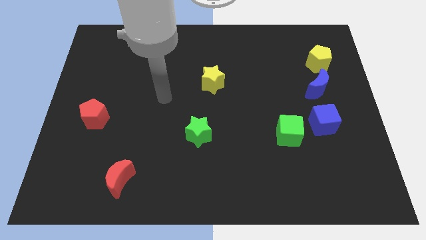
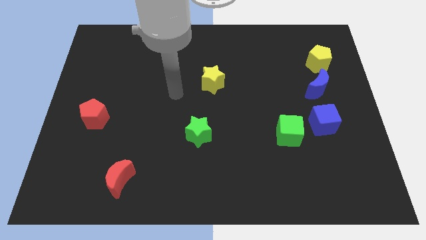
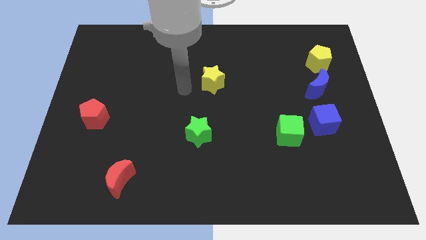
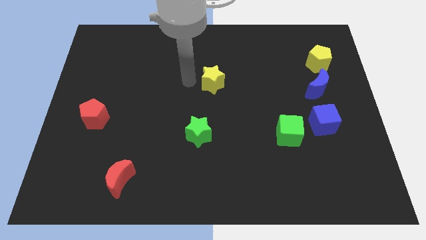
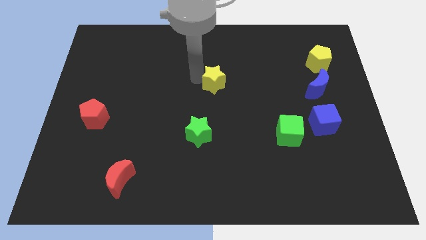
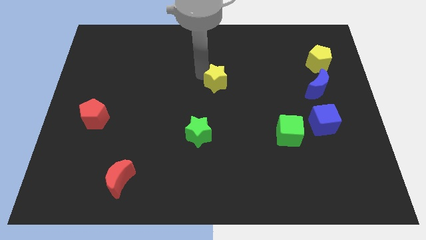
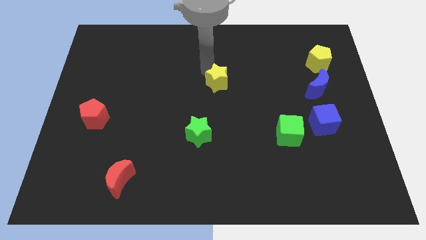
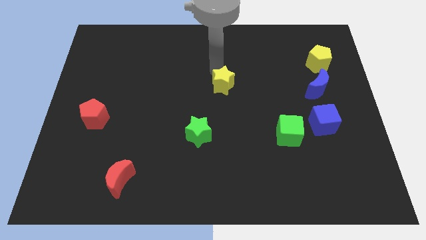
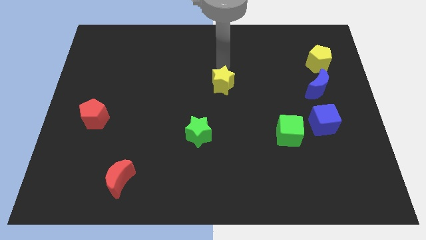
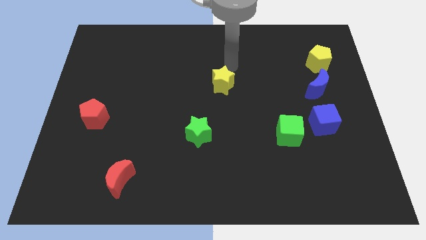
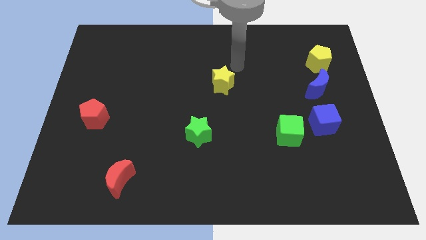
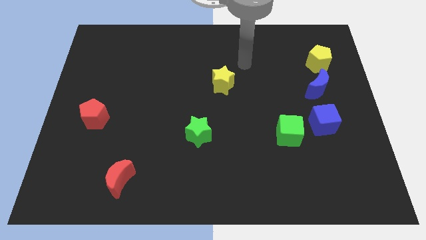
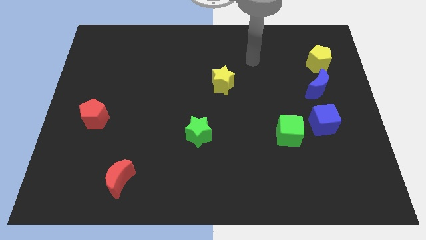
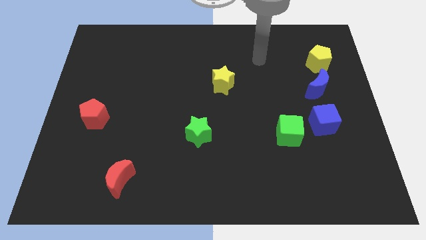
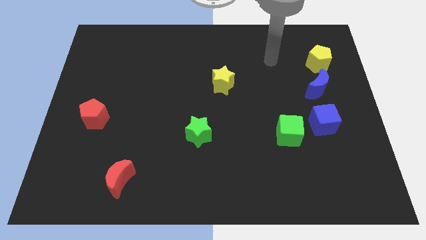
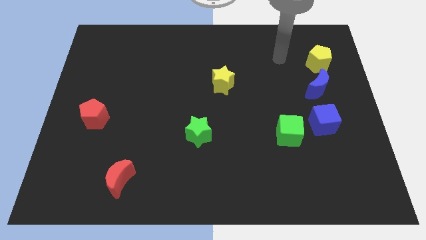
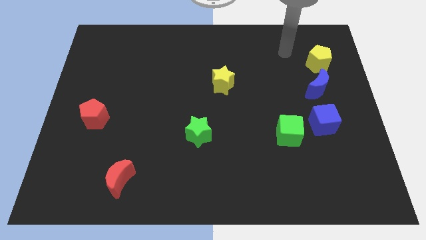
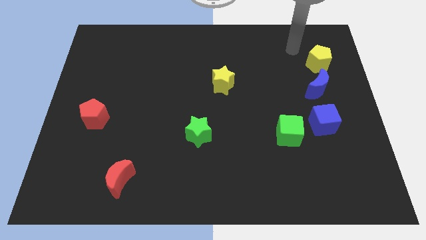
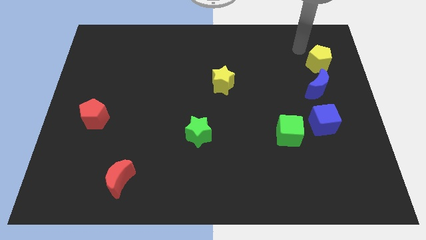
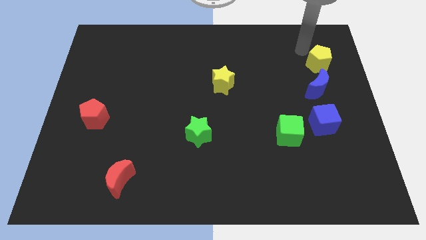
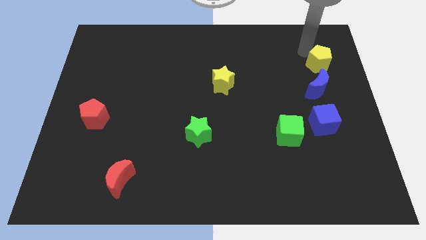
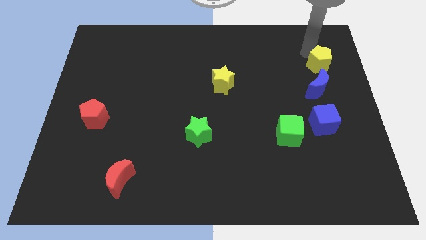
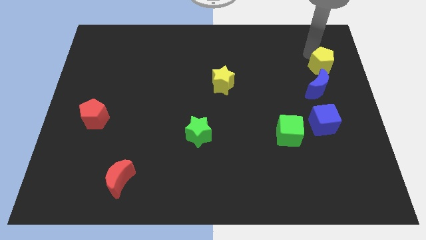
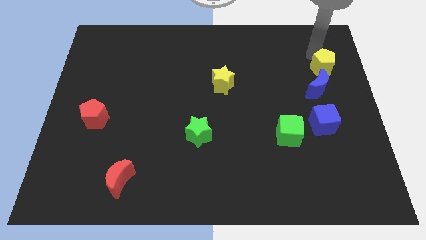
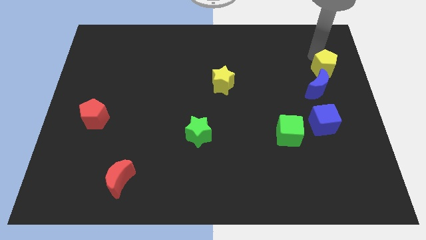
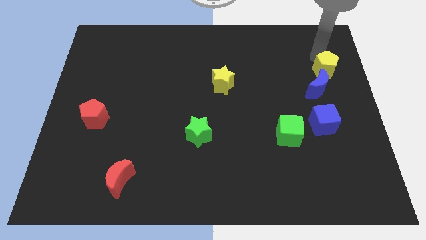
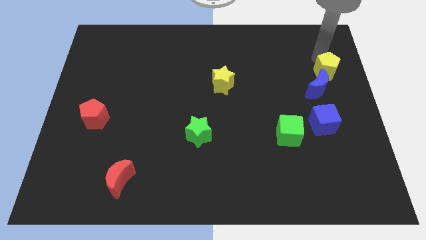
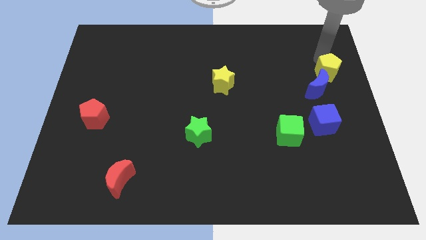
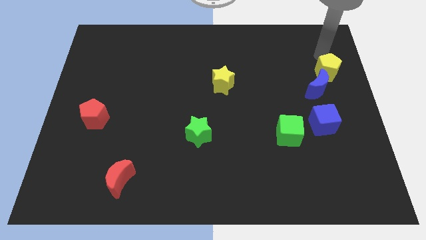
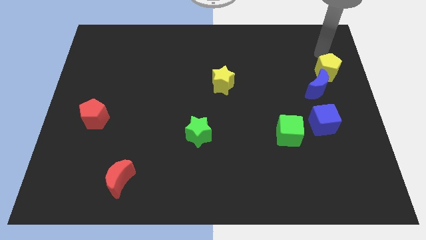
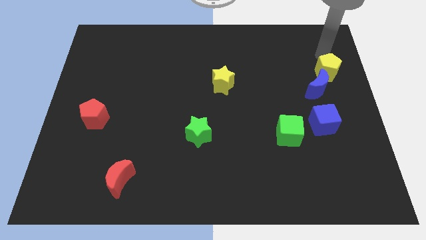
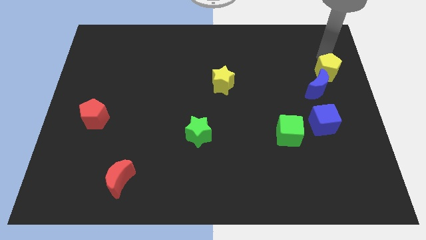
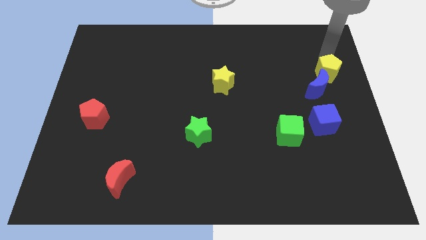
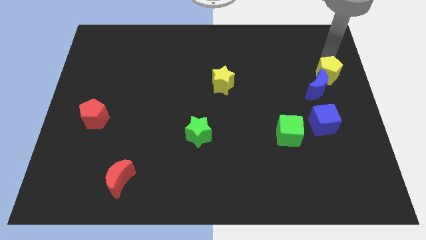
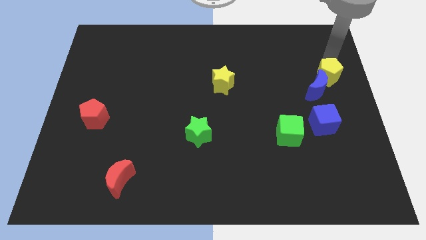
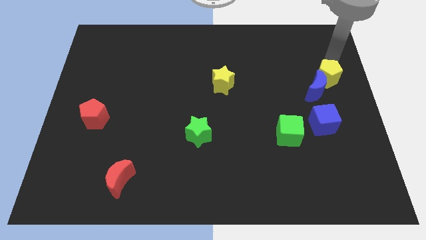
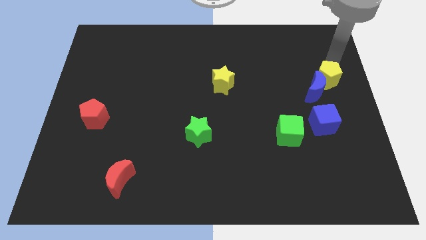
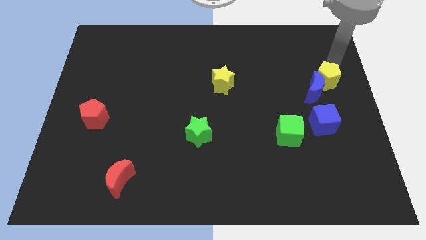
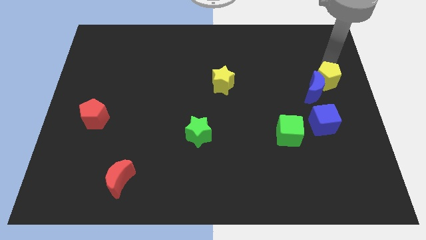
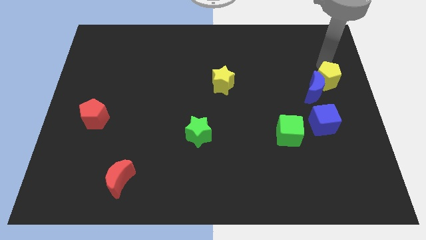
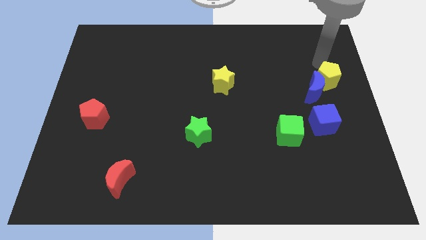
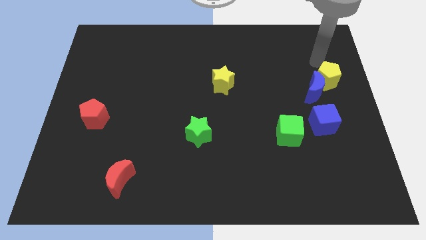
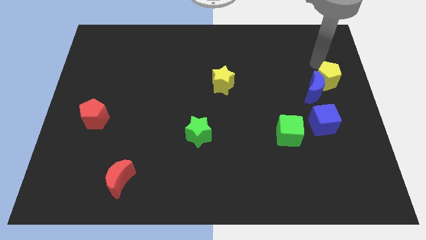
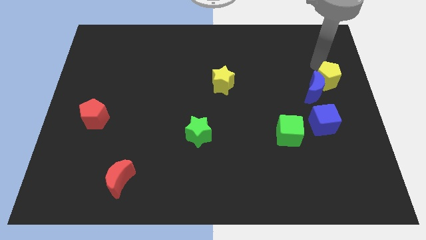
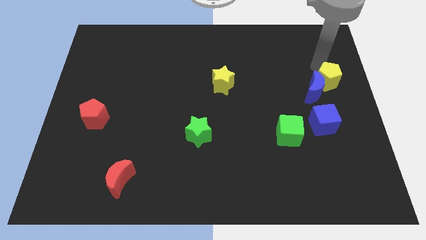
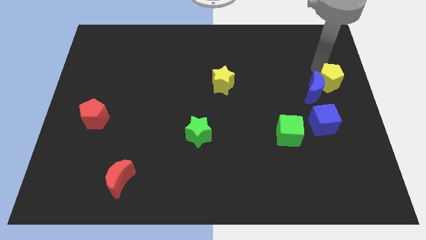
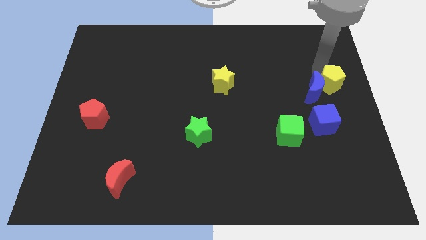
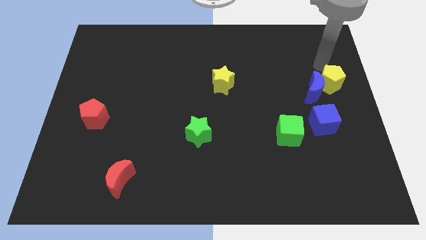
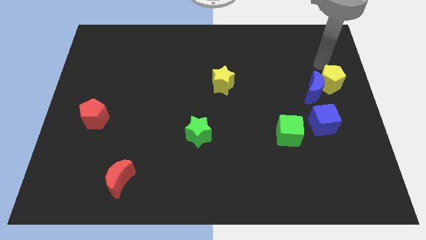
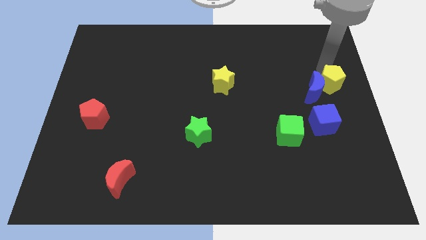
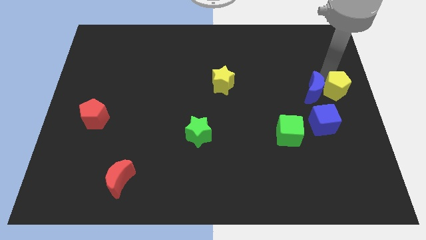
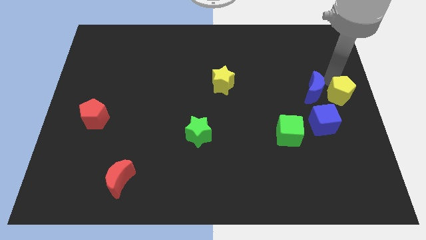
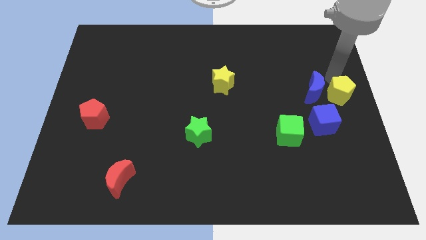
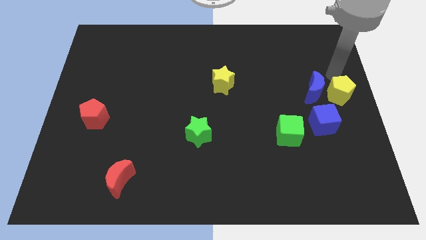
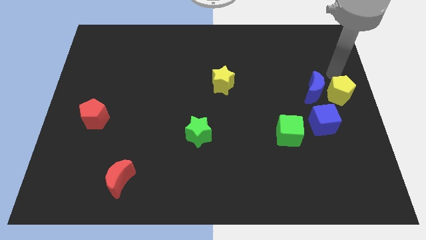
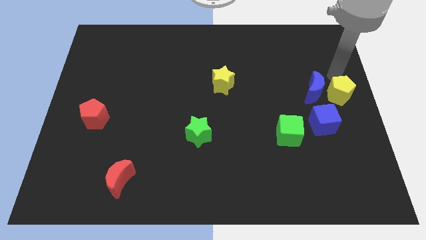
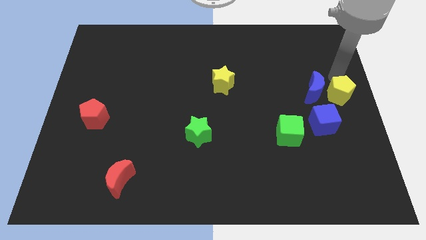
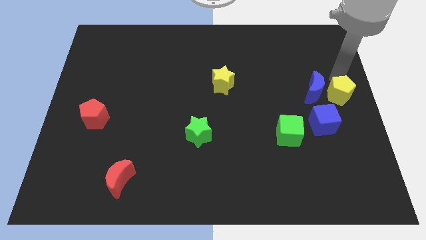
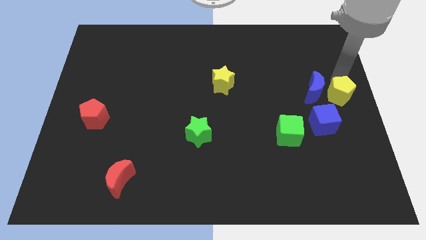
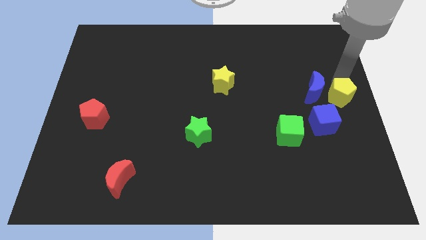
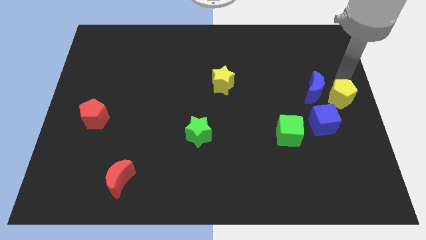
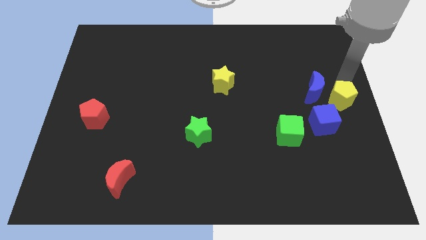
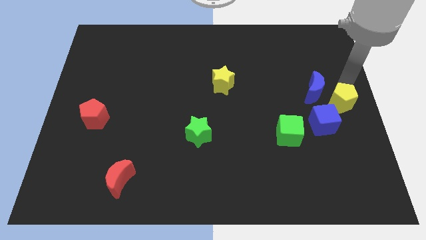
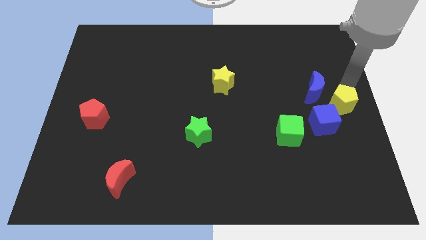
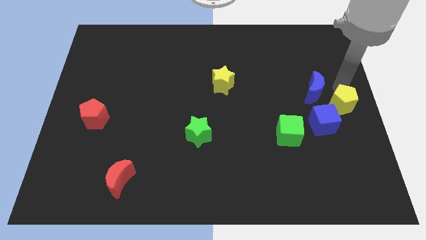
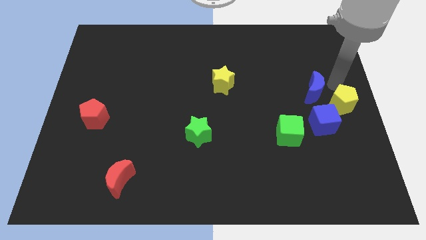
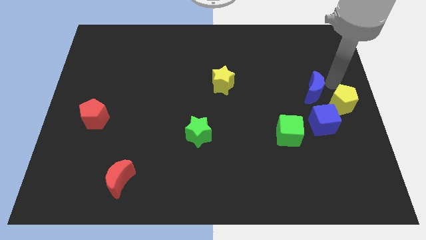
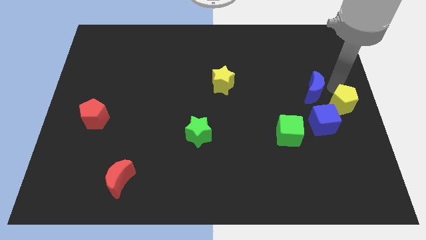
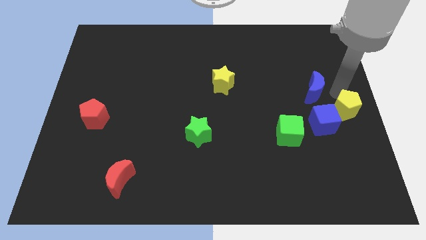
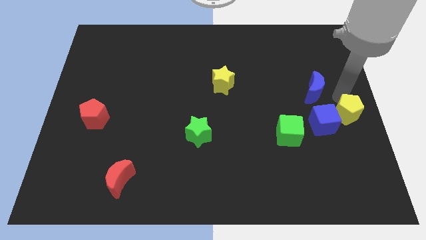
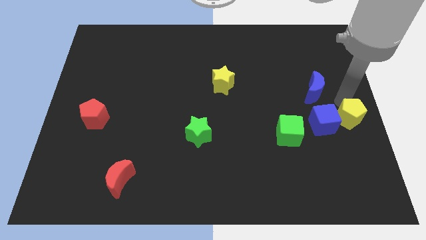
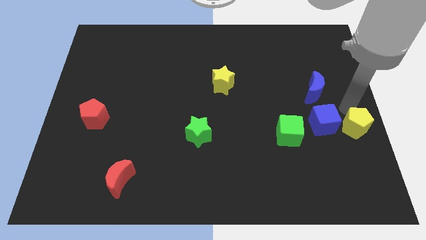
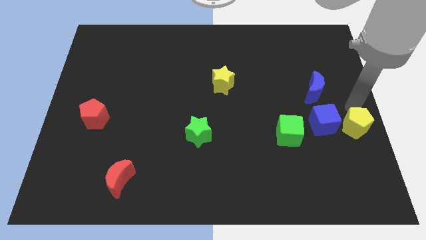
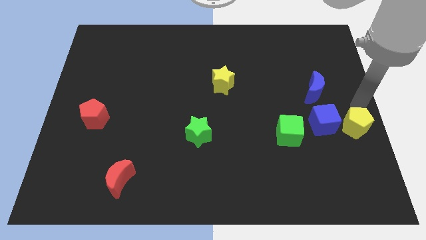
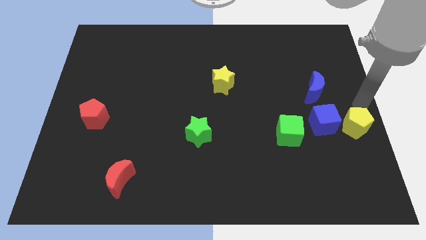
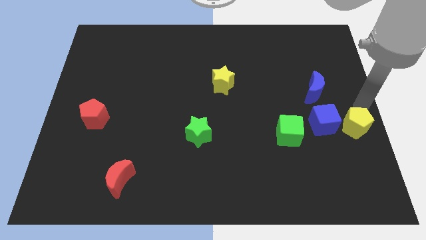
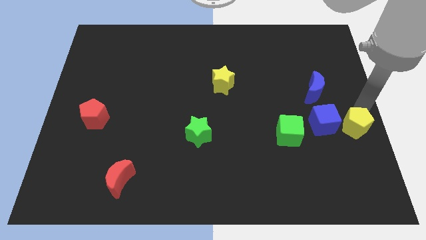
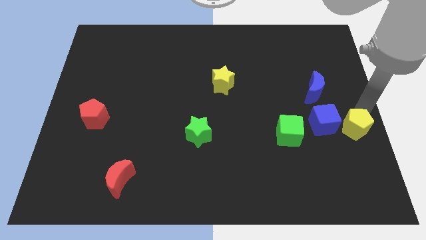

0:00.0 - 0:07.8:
move the yellow pentagon downwards
